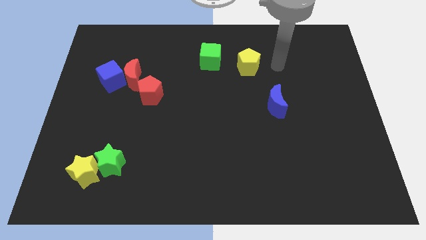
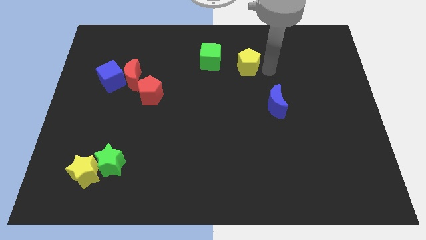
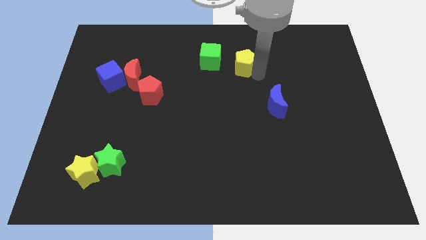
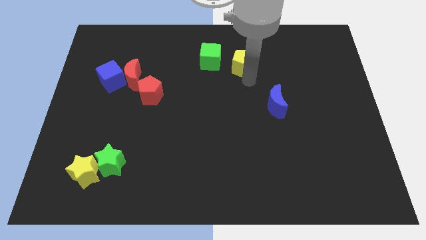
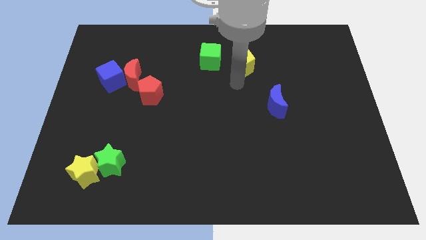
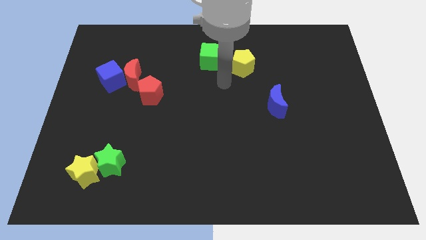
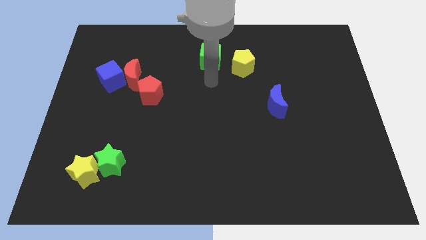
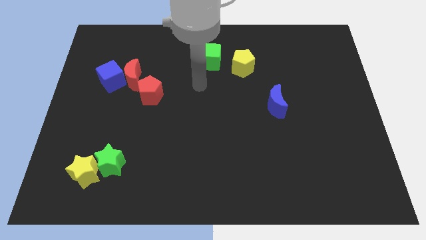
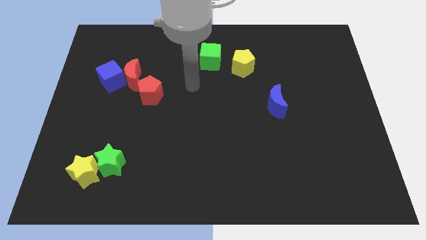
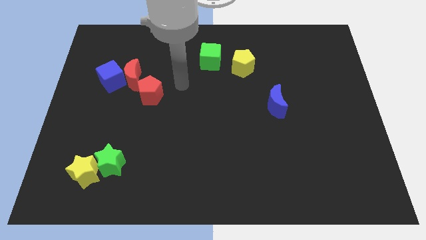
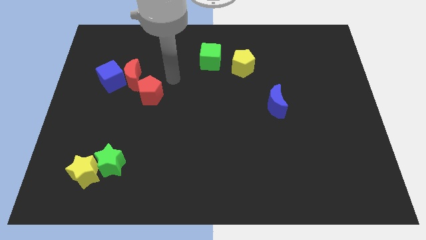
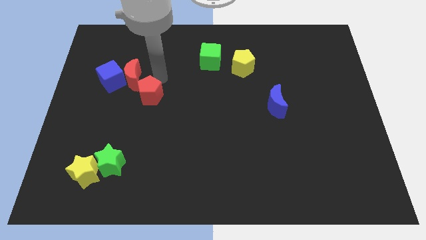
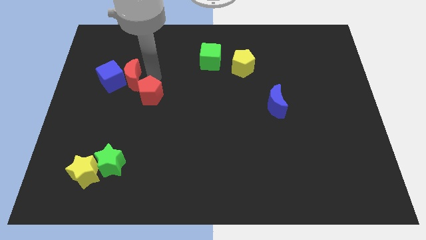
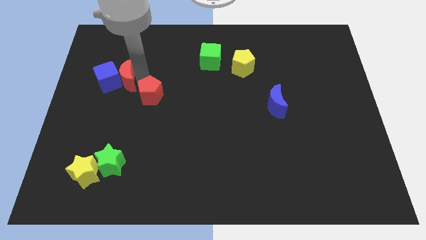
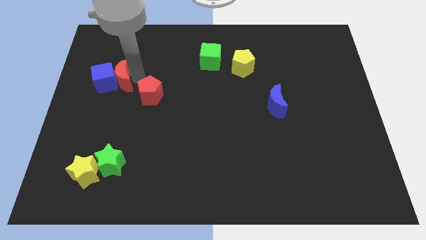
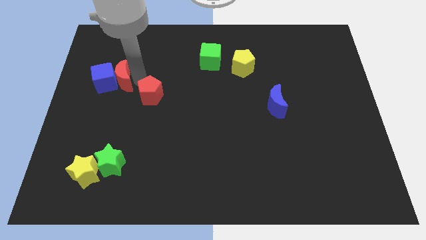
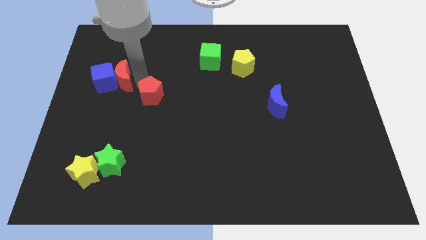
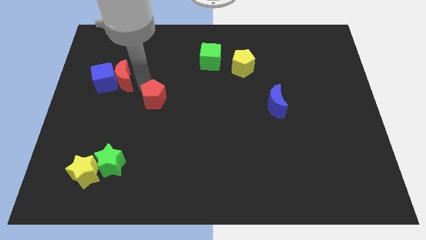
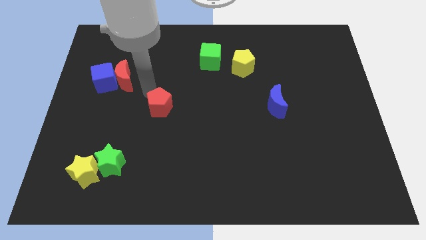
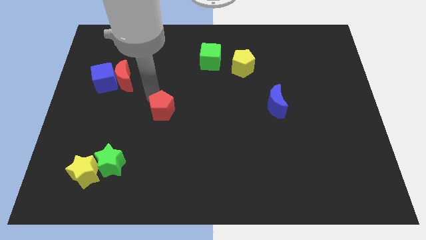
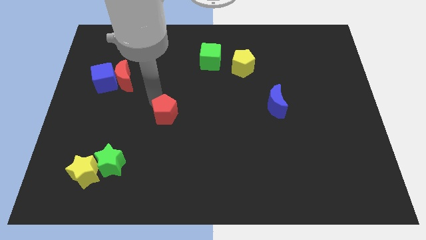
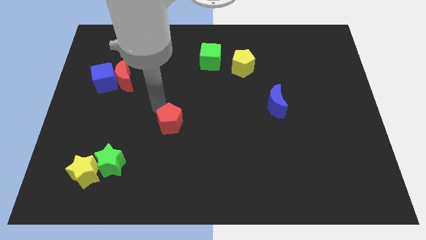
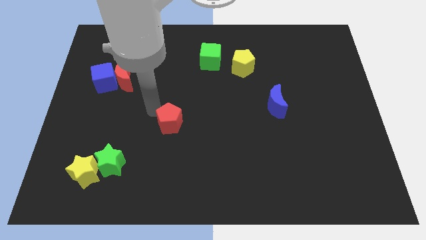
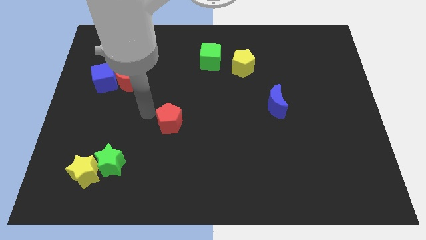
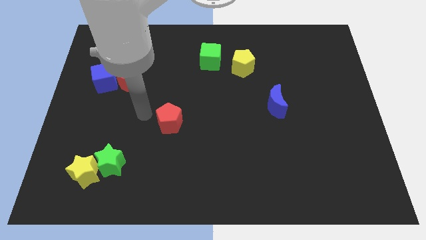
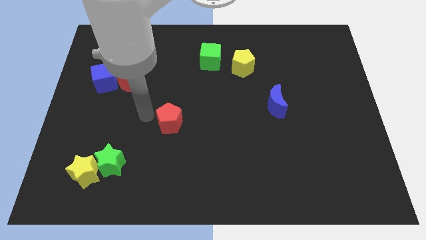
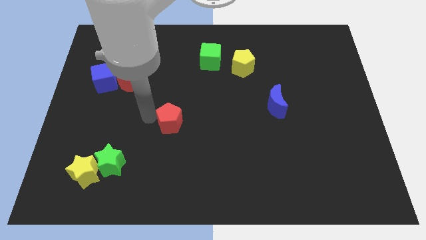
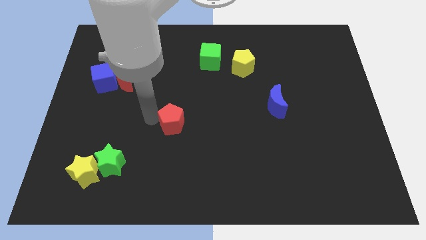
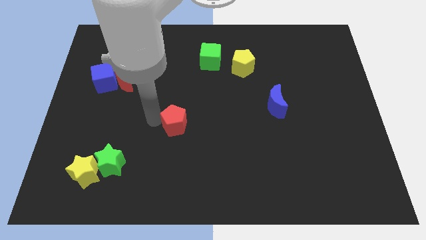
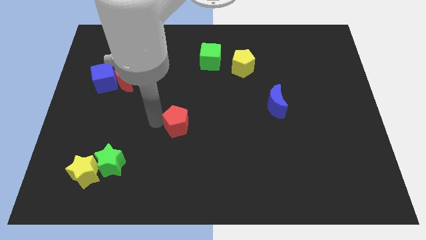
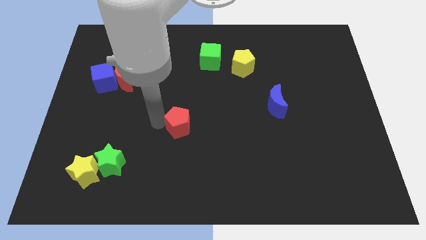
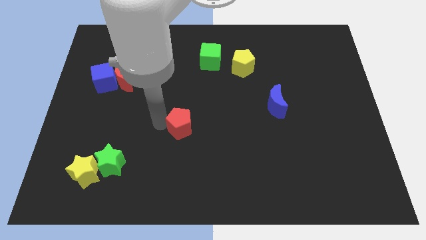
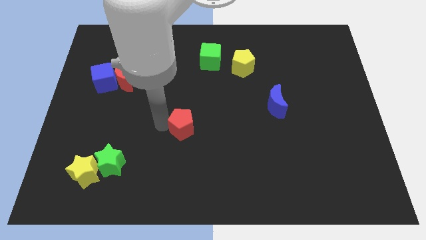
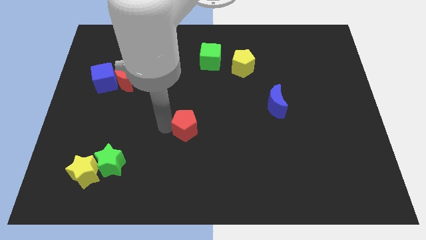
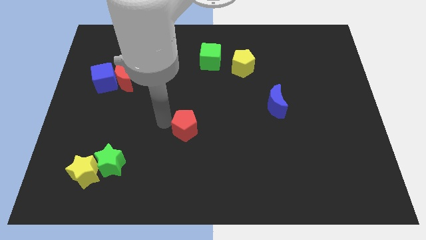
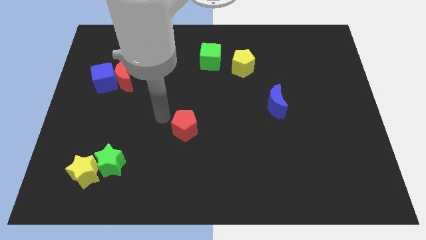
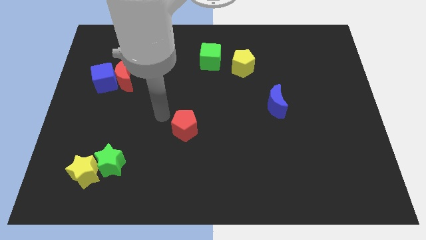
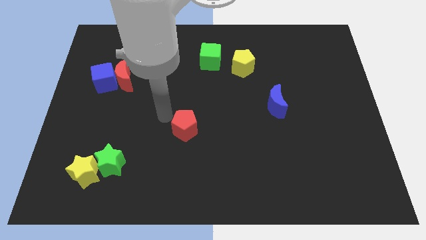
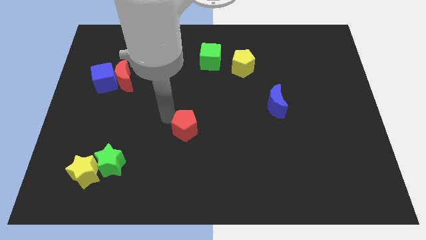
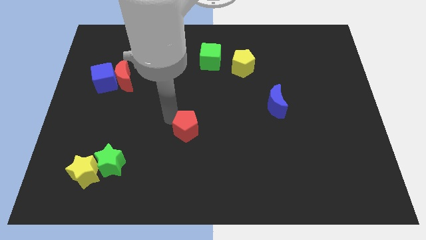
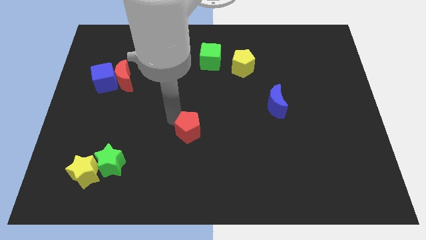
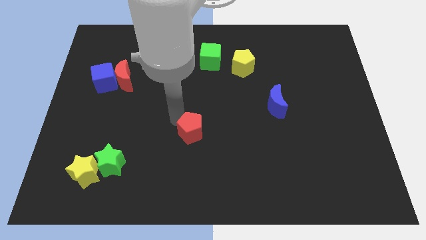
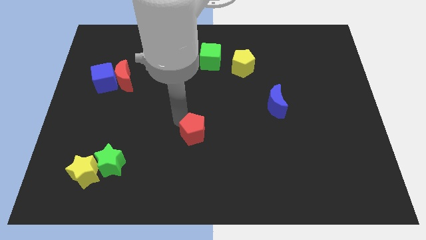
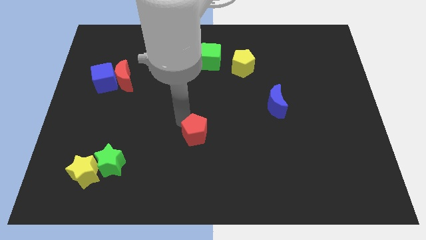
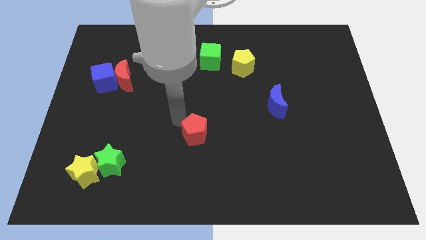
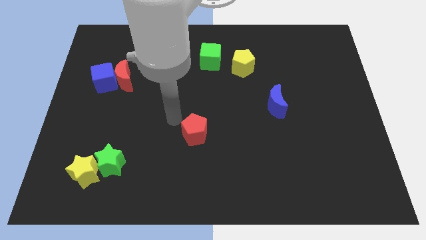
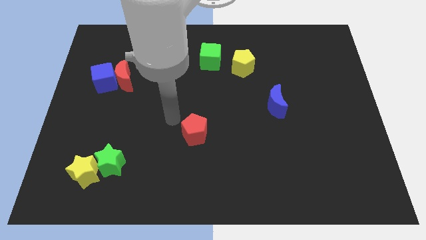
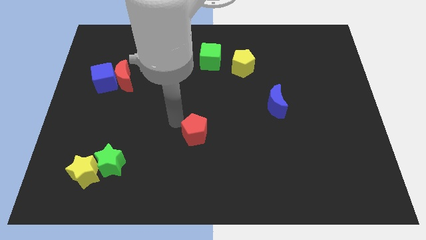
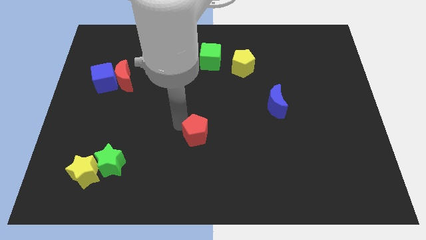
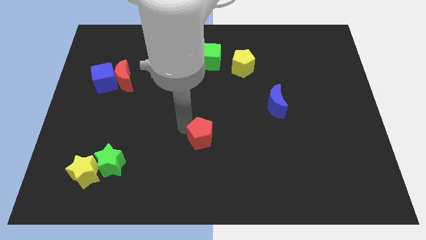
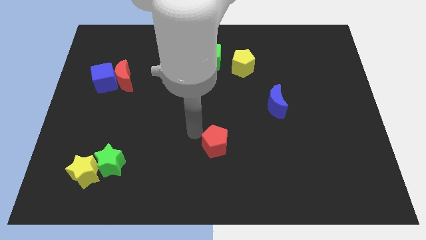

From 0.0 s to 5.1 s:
slide the red pentagon down and then right

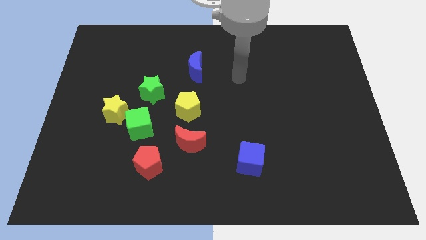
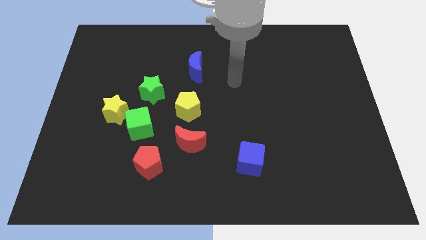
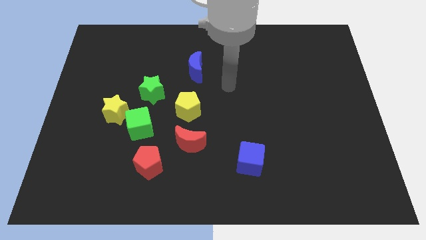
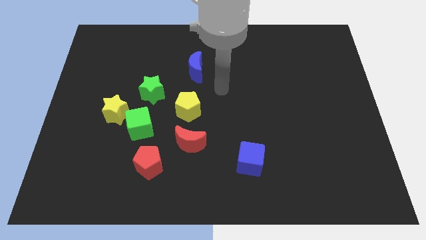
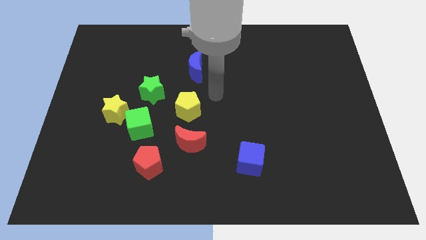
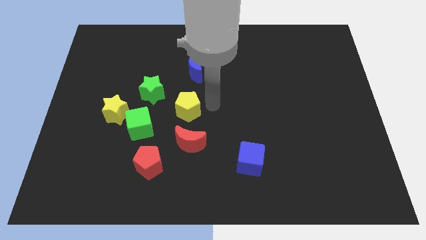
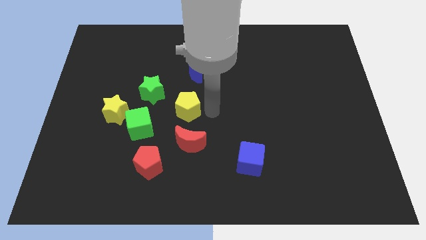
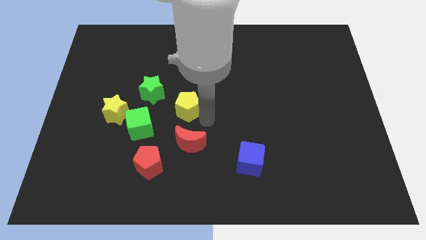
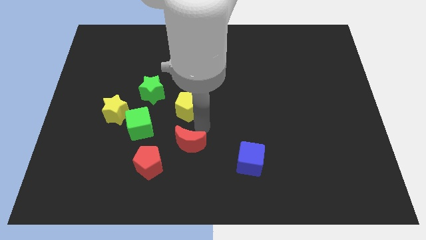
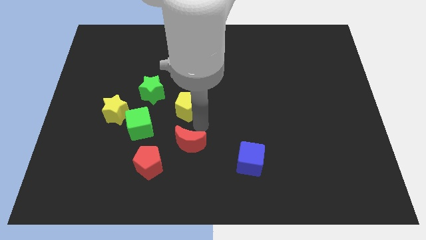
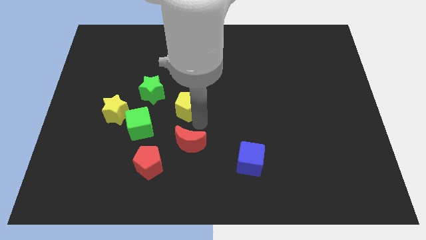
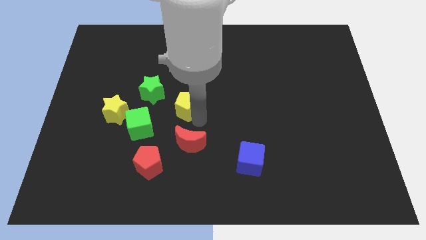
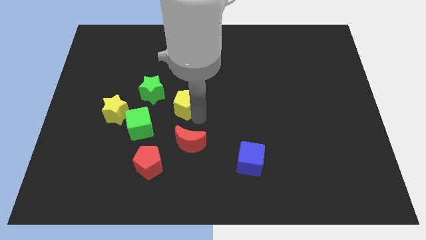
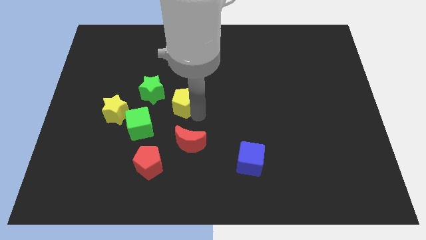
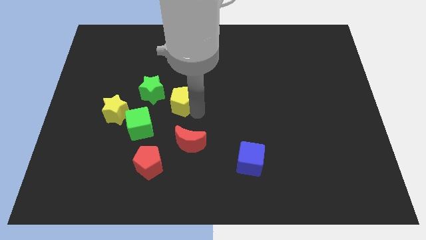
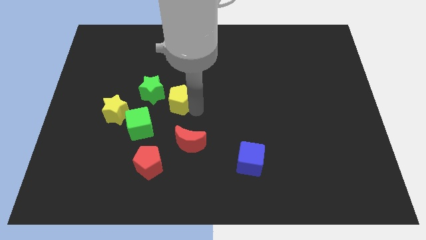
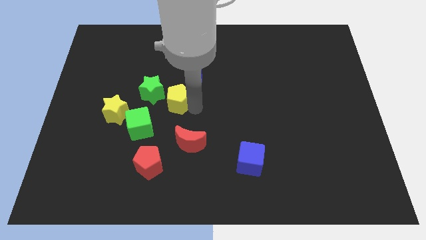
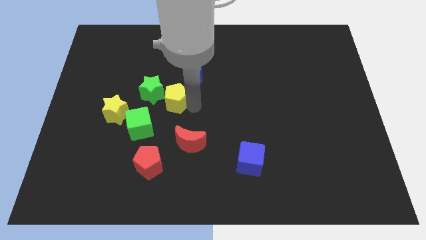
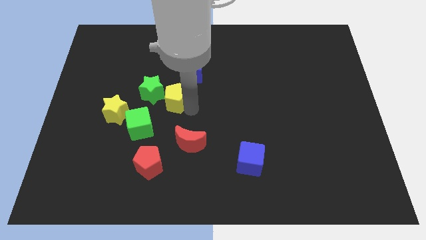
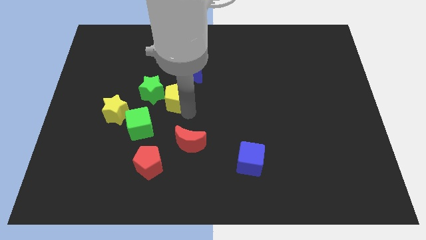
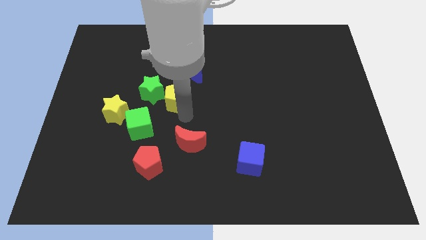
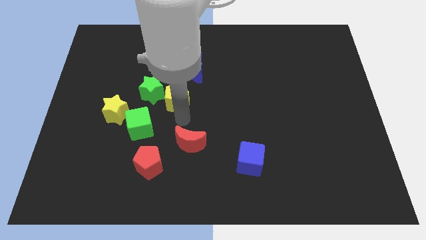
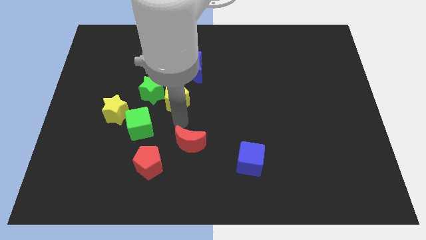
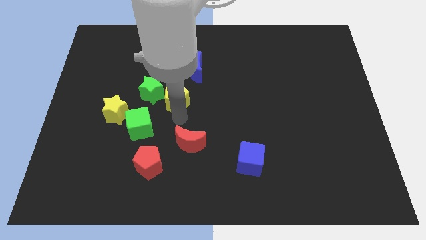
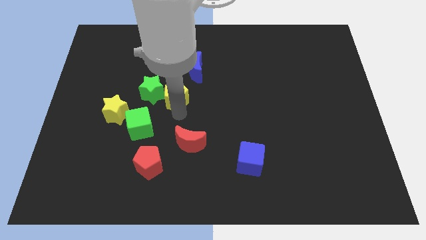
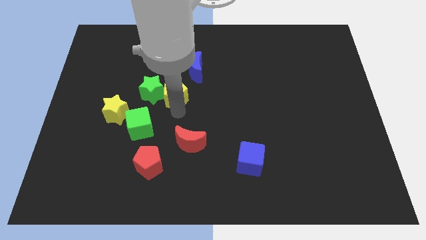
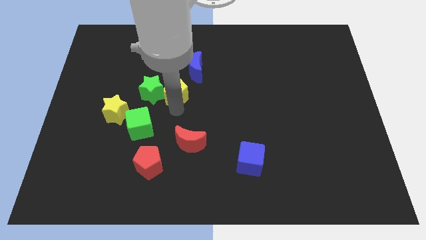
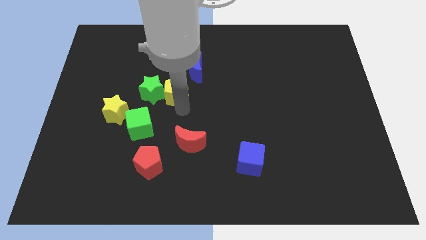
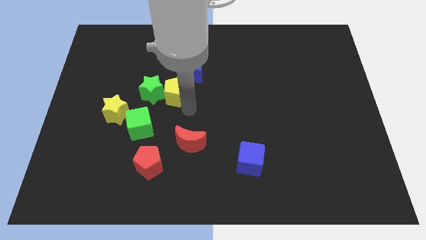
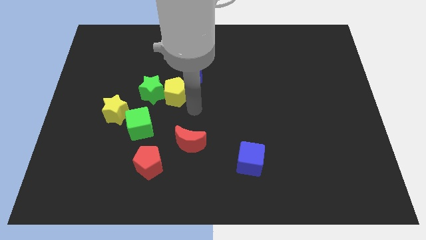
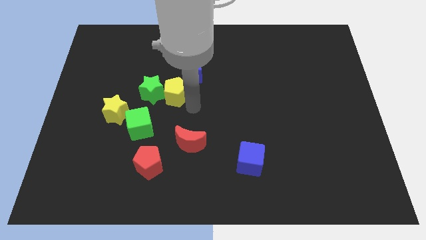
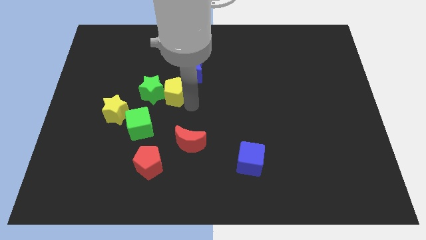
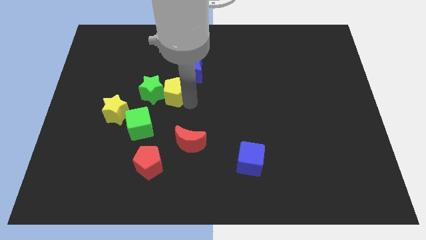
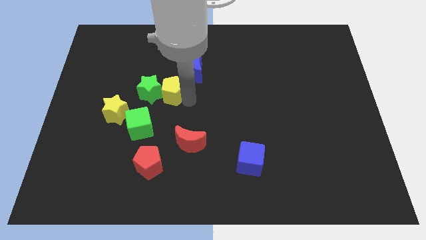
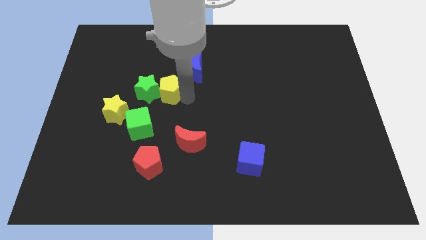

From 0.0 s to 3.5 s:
push the yellow pentagon upwards and to the left a little
